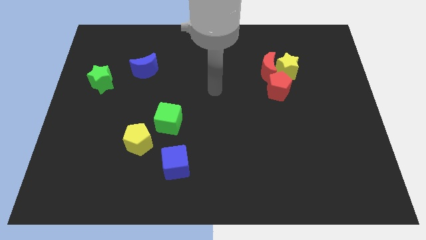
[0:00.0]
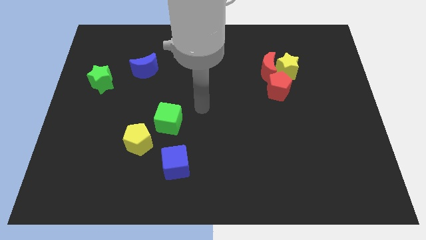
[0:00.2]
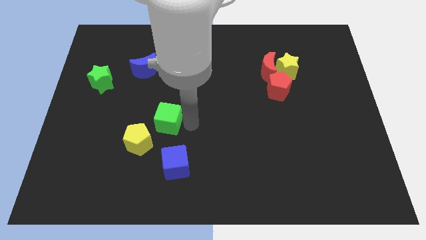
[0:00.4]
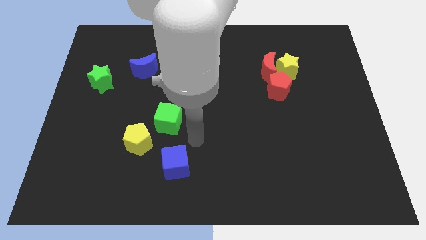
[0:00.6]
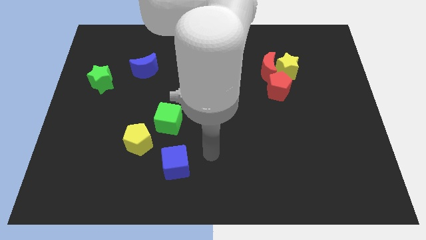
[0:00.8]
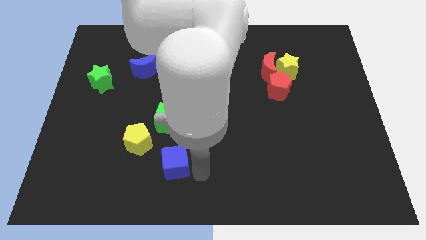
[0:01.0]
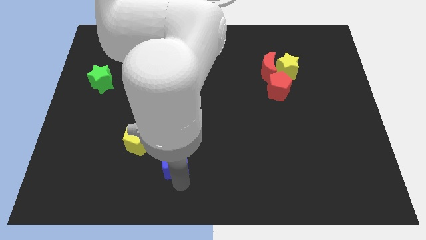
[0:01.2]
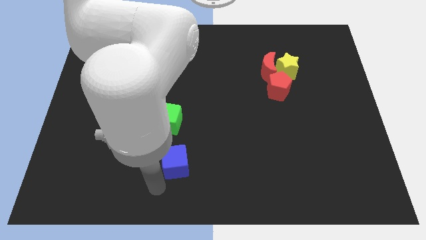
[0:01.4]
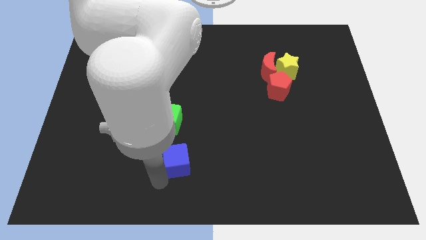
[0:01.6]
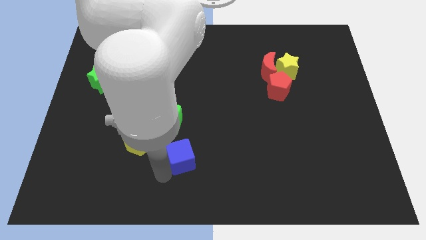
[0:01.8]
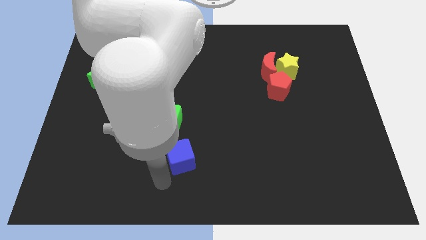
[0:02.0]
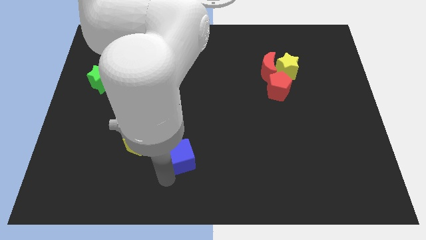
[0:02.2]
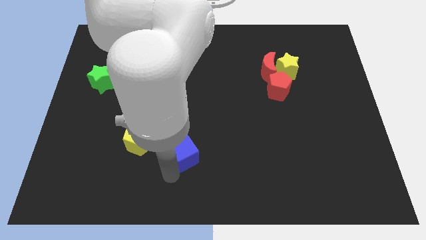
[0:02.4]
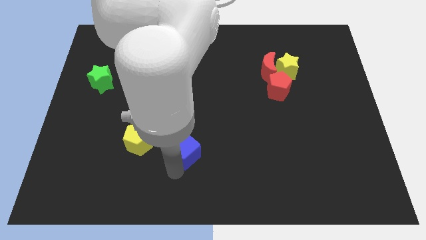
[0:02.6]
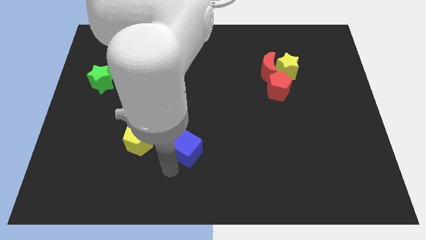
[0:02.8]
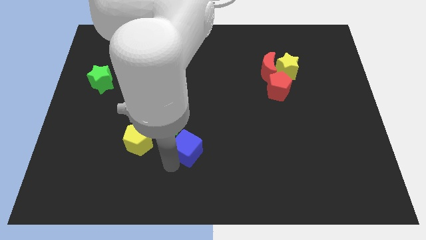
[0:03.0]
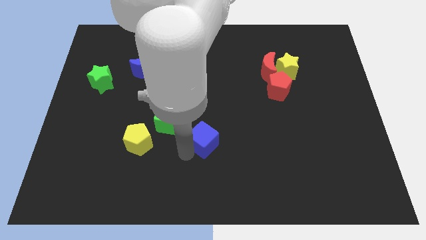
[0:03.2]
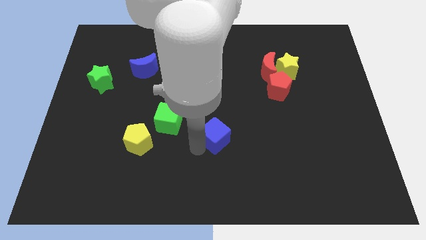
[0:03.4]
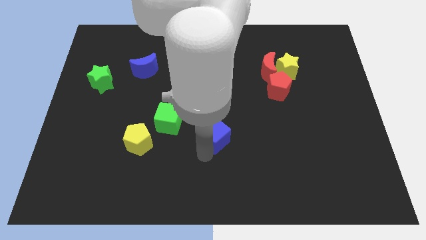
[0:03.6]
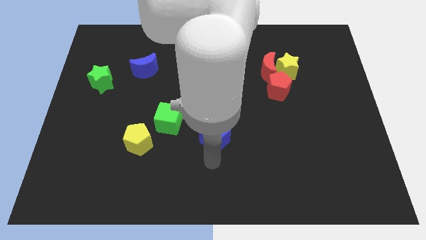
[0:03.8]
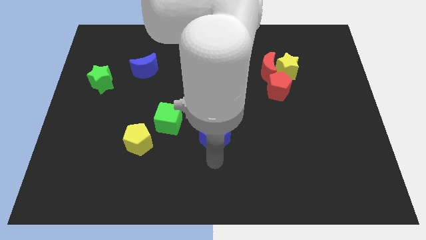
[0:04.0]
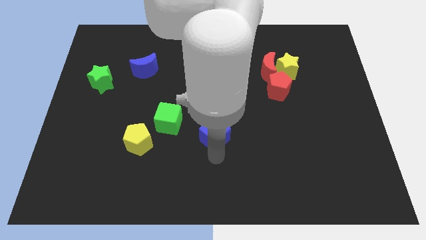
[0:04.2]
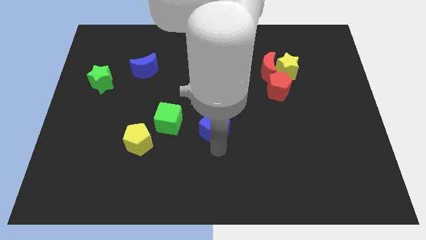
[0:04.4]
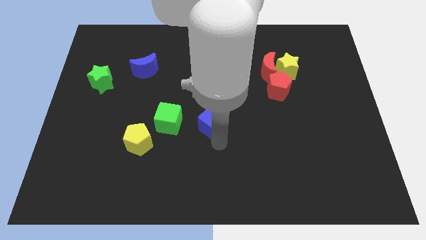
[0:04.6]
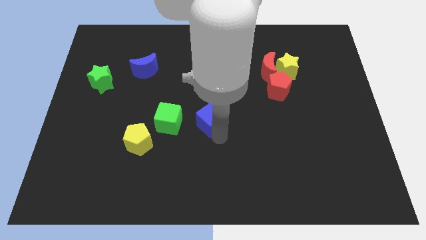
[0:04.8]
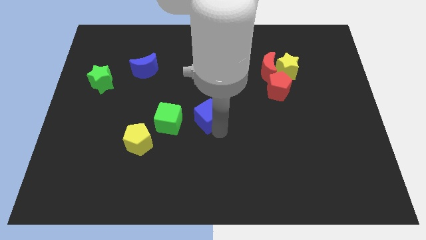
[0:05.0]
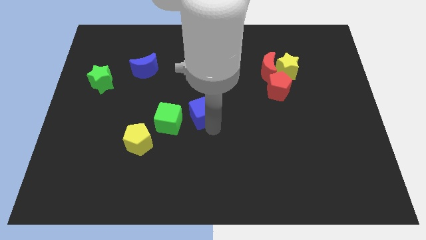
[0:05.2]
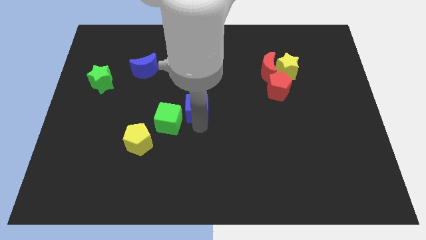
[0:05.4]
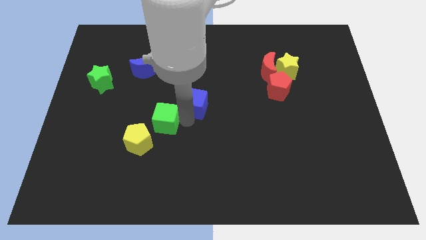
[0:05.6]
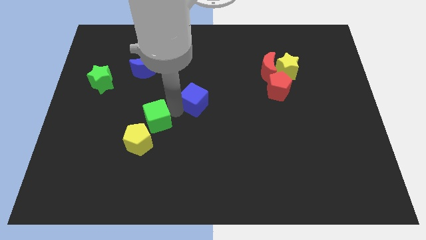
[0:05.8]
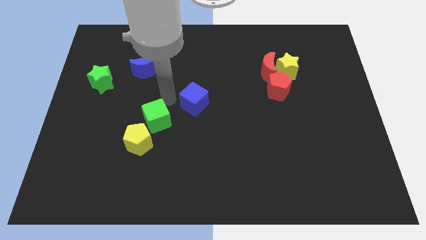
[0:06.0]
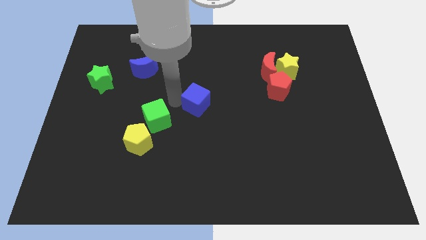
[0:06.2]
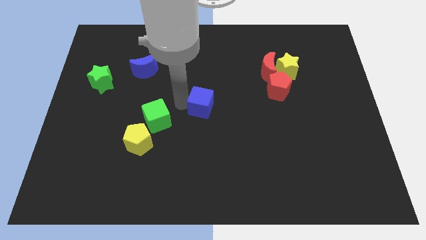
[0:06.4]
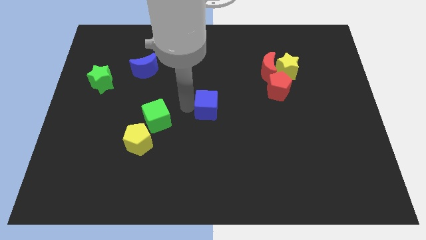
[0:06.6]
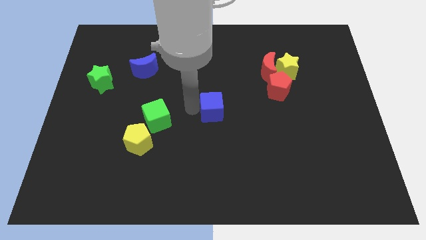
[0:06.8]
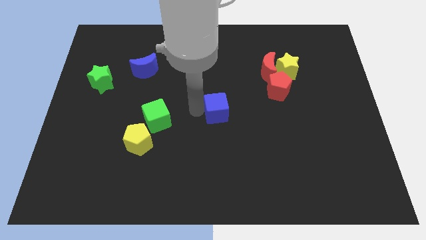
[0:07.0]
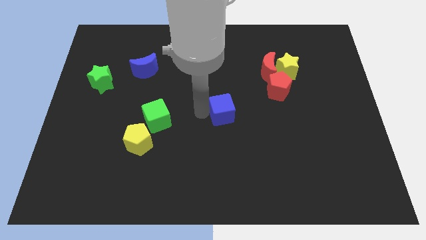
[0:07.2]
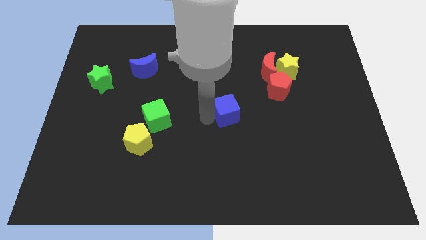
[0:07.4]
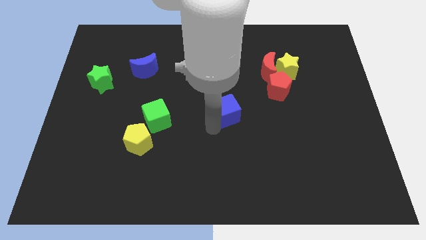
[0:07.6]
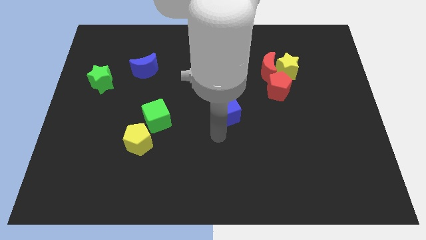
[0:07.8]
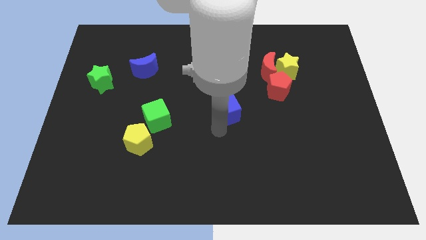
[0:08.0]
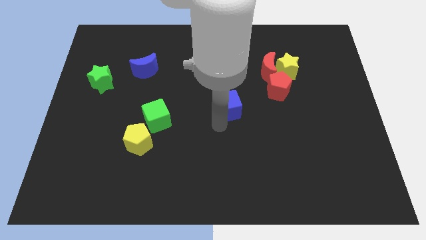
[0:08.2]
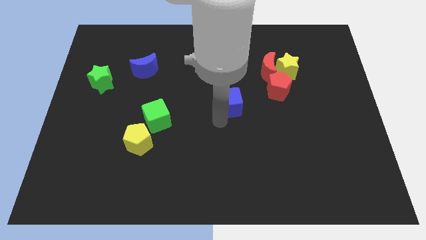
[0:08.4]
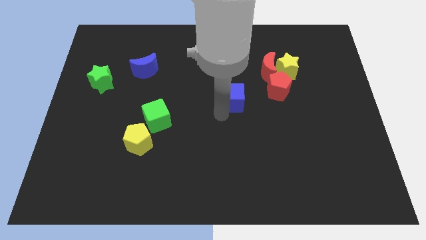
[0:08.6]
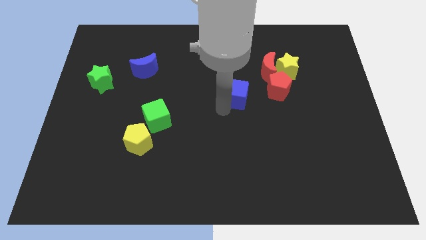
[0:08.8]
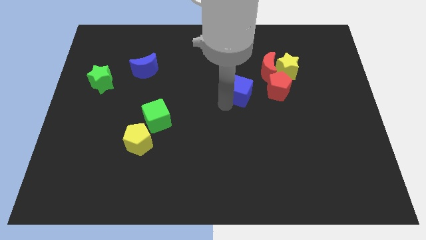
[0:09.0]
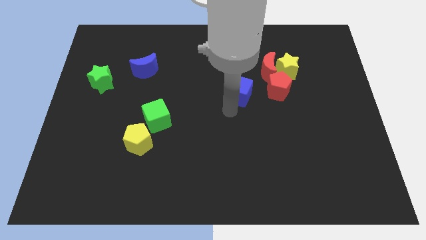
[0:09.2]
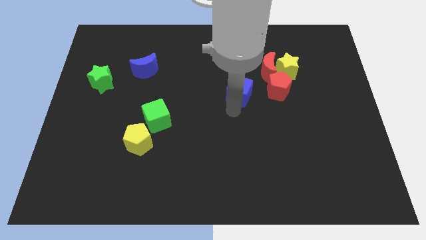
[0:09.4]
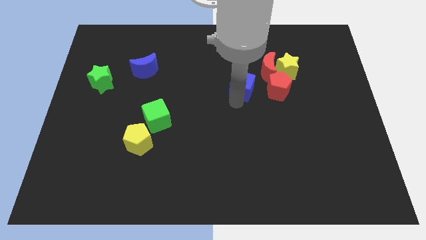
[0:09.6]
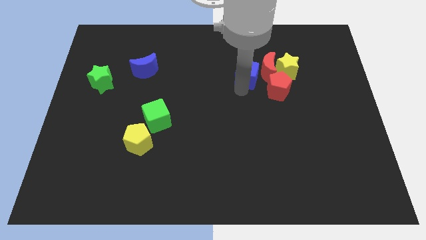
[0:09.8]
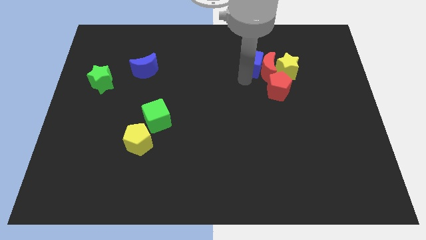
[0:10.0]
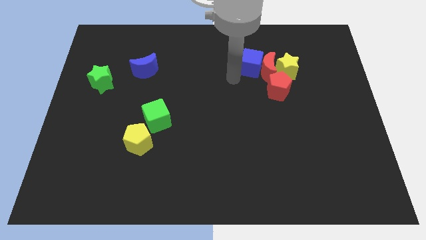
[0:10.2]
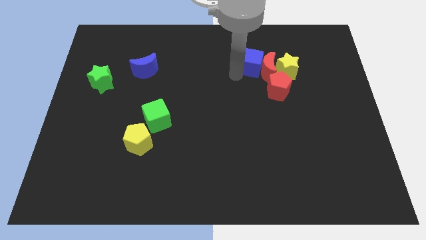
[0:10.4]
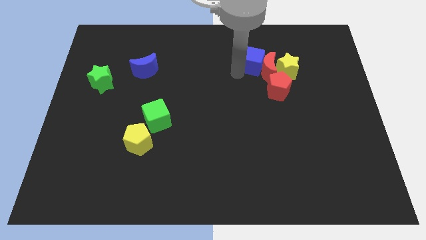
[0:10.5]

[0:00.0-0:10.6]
put the blue cube to the top left of the yellow star

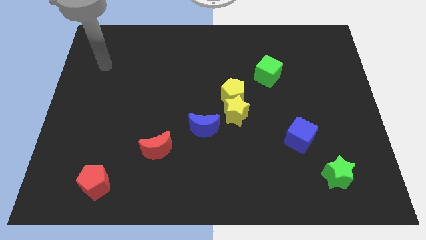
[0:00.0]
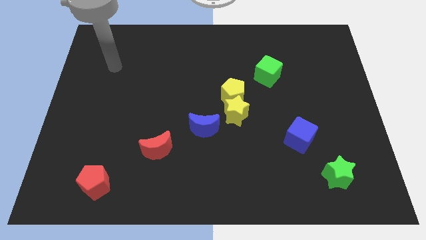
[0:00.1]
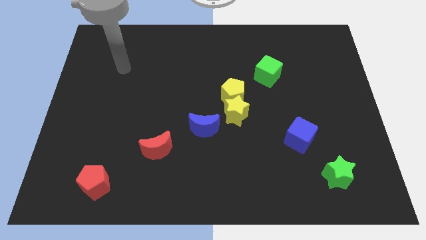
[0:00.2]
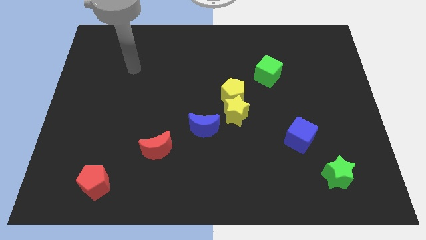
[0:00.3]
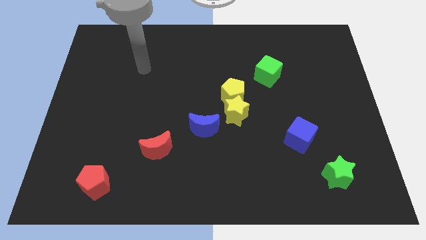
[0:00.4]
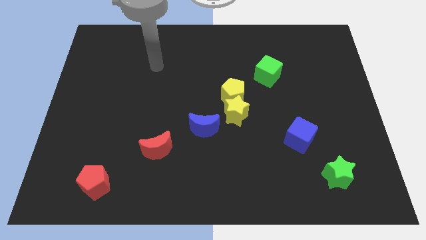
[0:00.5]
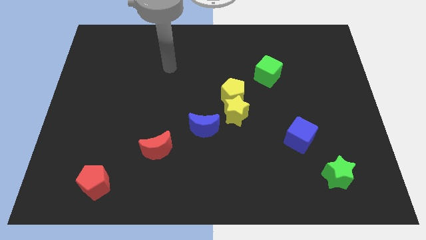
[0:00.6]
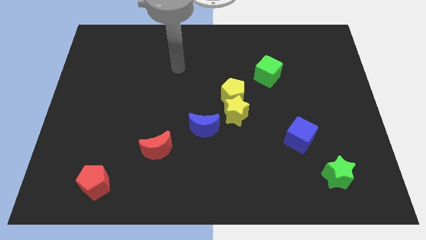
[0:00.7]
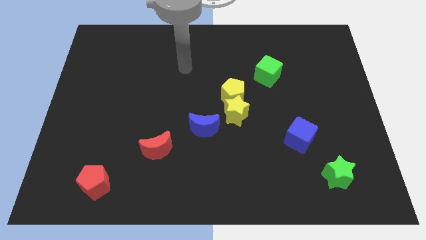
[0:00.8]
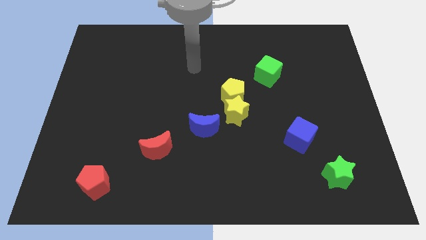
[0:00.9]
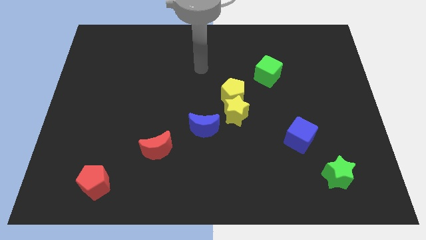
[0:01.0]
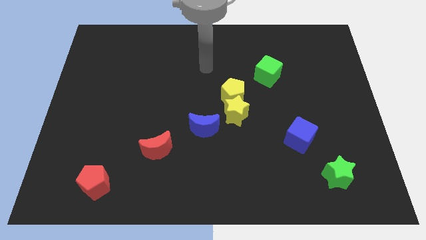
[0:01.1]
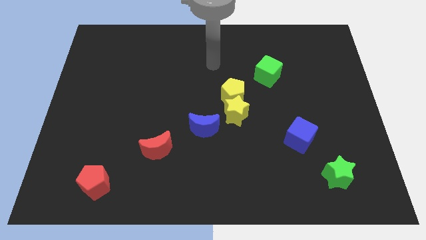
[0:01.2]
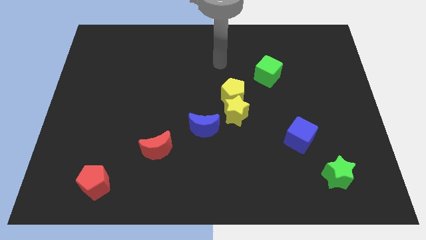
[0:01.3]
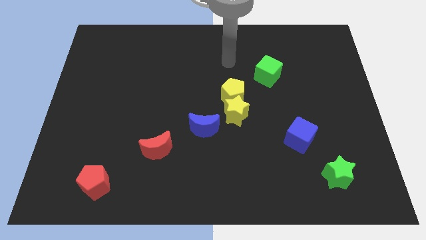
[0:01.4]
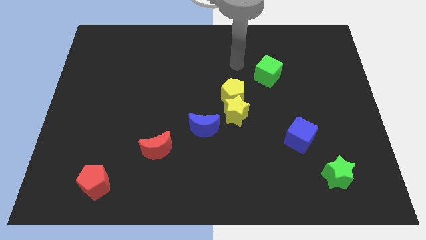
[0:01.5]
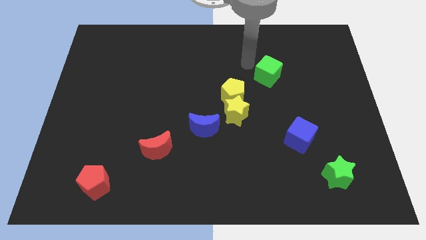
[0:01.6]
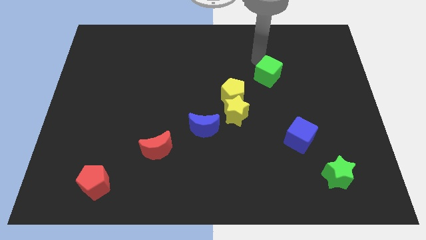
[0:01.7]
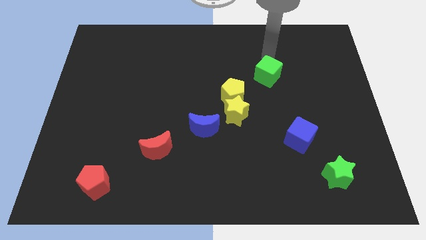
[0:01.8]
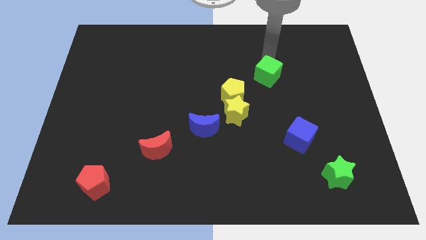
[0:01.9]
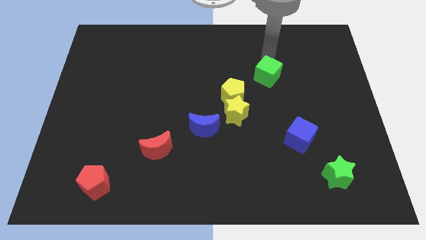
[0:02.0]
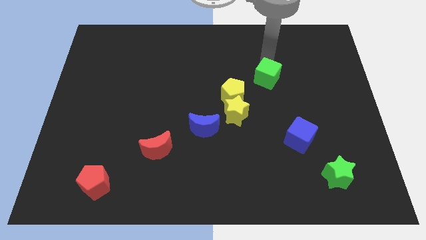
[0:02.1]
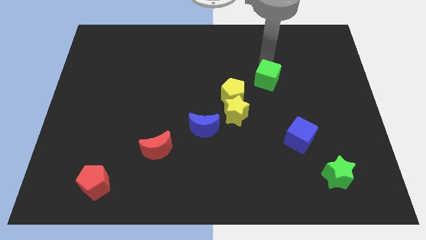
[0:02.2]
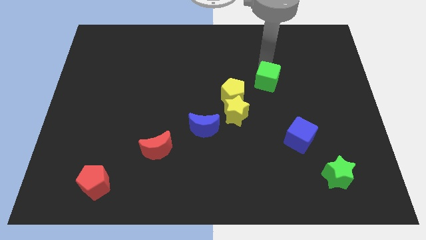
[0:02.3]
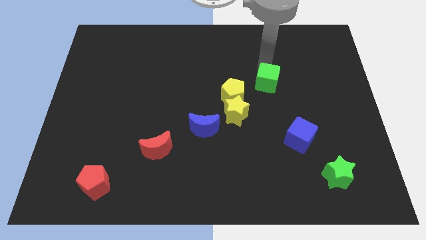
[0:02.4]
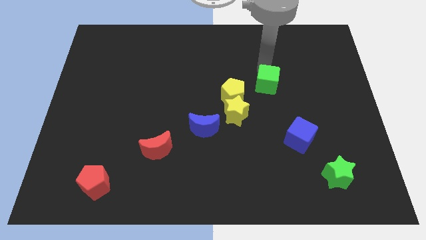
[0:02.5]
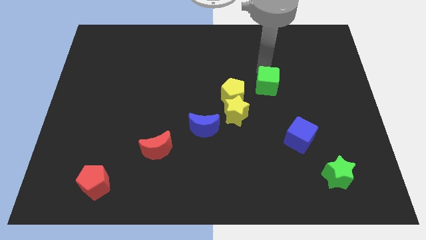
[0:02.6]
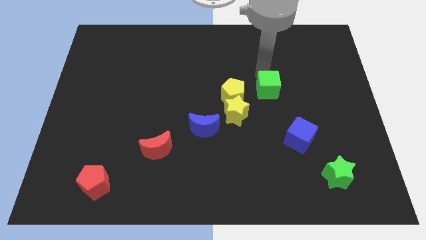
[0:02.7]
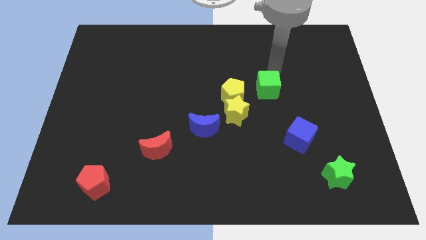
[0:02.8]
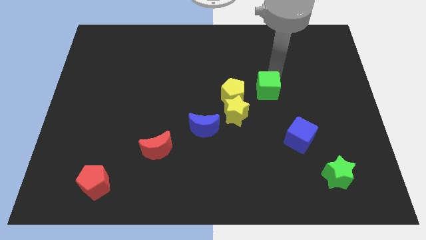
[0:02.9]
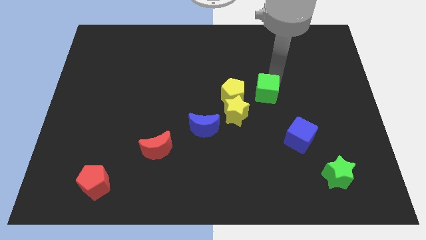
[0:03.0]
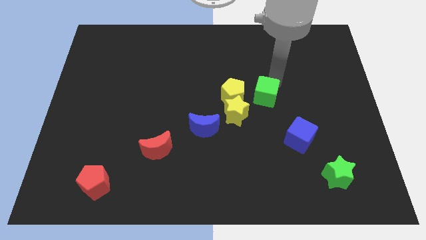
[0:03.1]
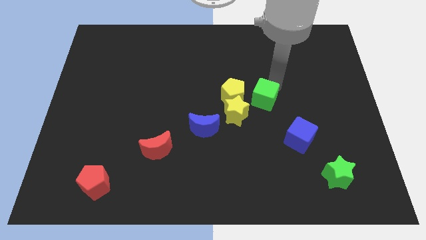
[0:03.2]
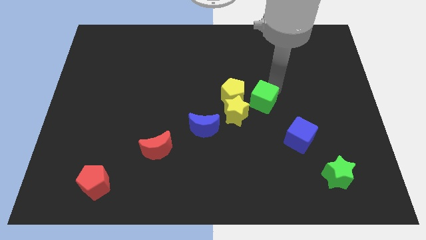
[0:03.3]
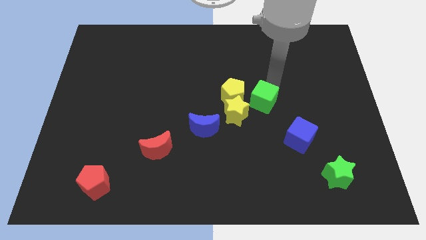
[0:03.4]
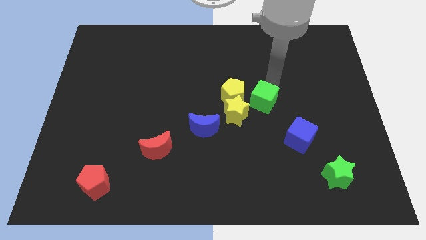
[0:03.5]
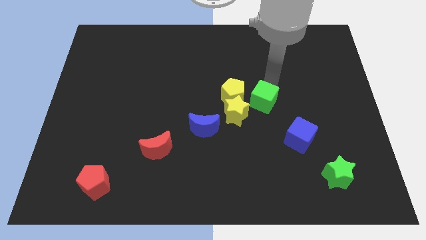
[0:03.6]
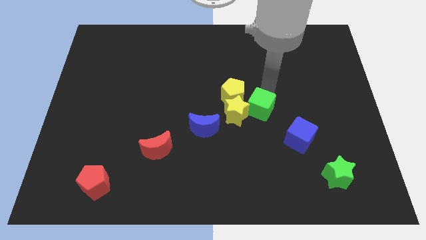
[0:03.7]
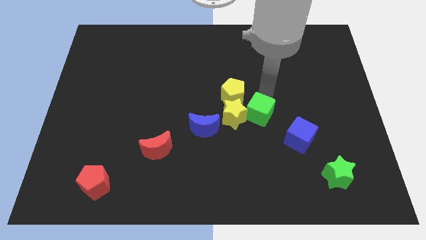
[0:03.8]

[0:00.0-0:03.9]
put the green cube to the right side of the blue moon
